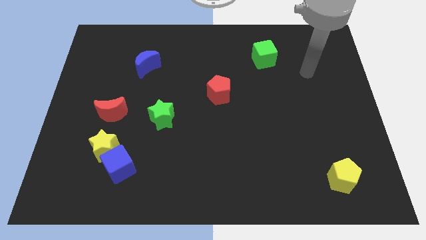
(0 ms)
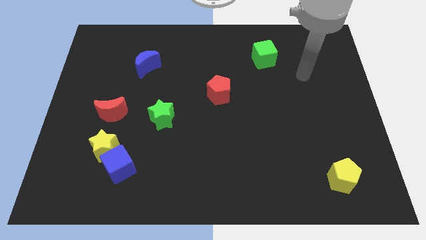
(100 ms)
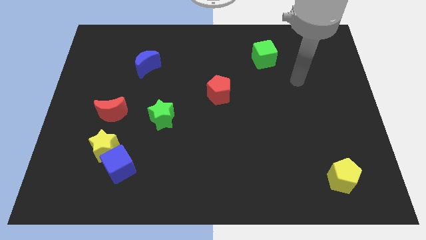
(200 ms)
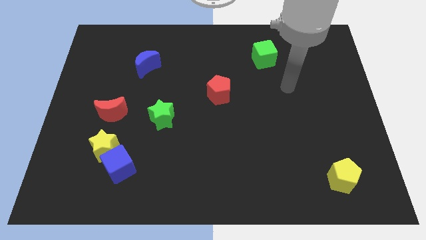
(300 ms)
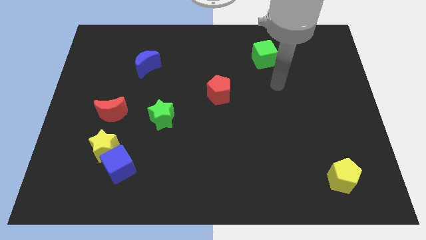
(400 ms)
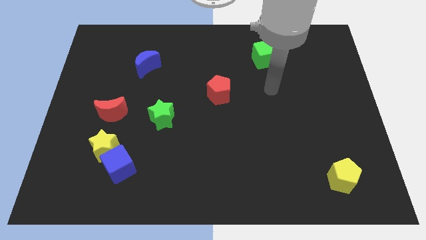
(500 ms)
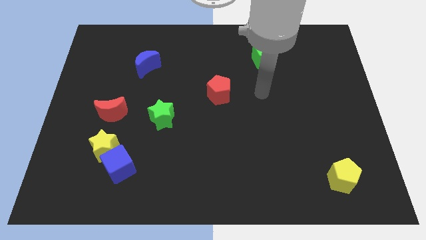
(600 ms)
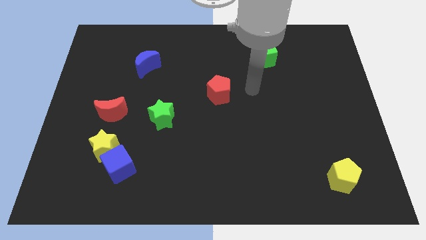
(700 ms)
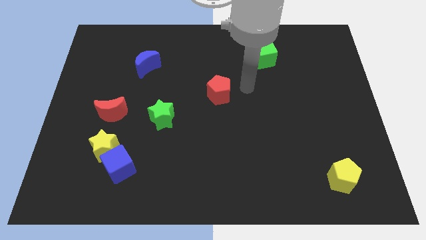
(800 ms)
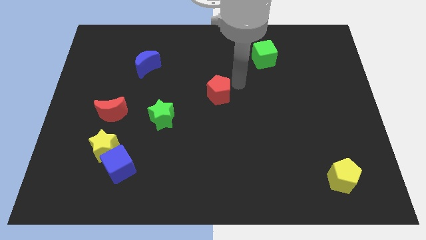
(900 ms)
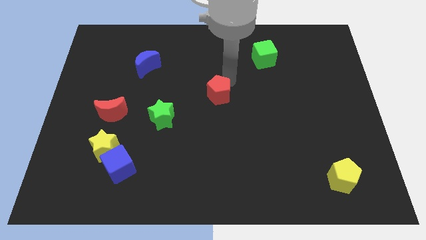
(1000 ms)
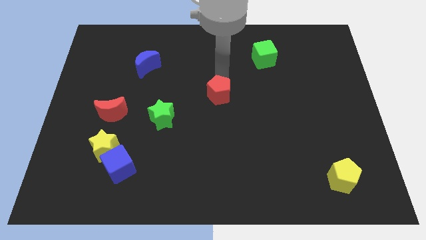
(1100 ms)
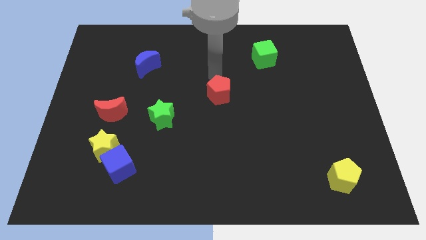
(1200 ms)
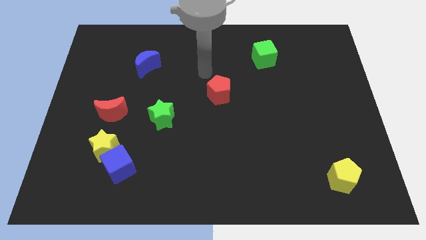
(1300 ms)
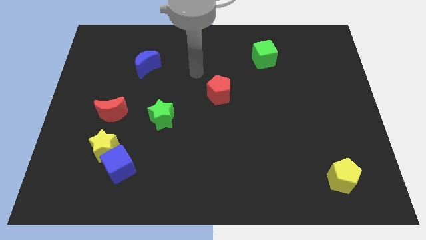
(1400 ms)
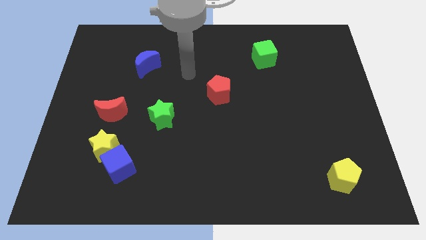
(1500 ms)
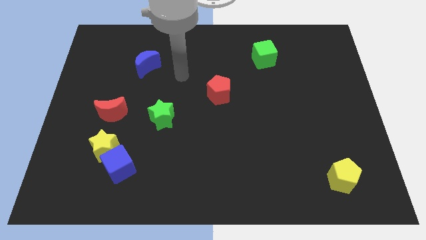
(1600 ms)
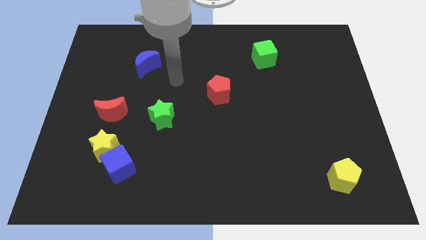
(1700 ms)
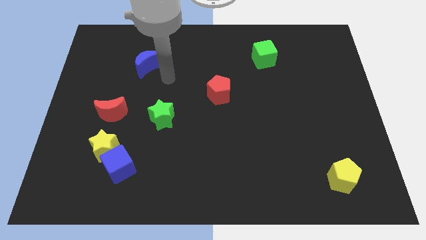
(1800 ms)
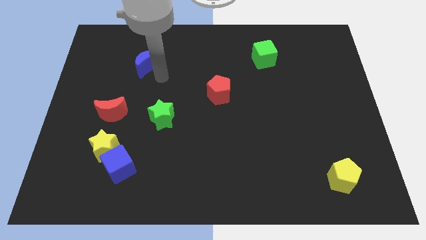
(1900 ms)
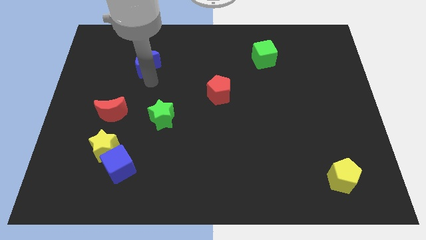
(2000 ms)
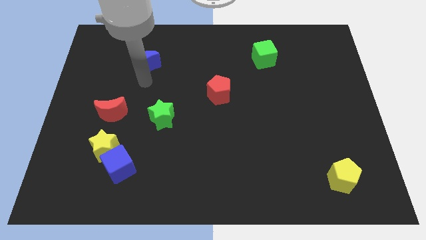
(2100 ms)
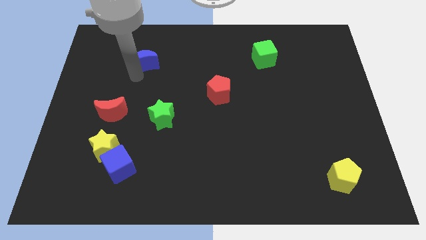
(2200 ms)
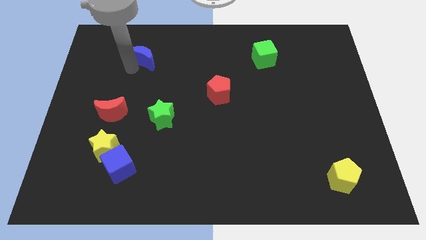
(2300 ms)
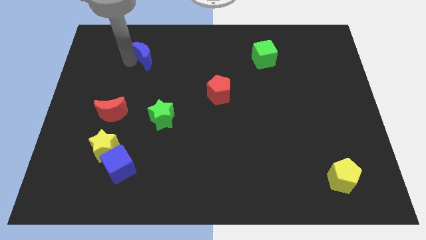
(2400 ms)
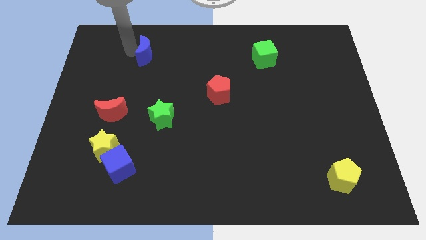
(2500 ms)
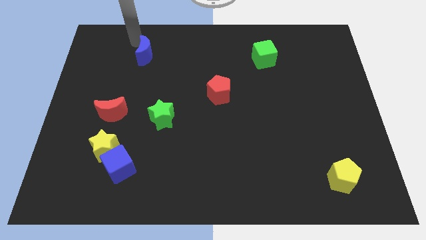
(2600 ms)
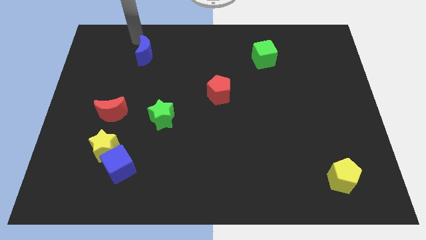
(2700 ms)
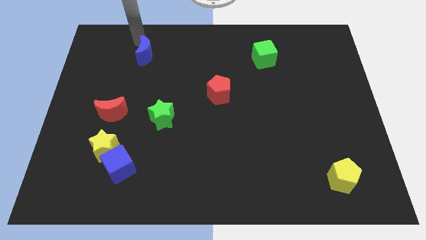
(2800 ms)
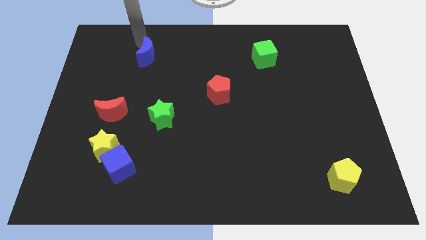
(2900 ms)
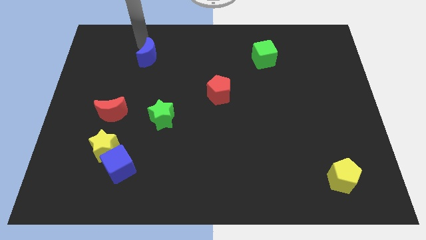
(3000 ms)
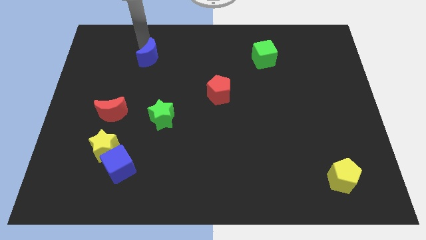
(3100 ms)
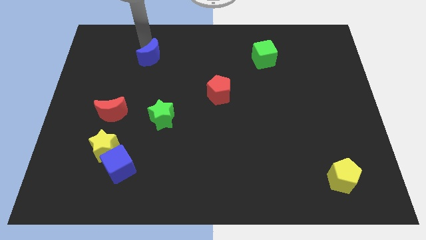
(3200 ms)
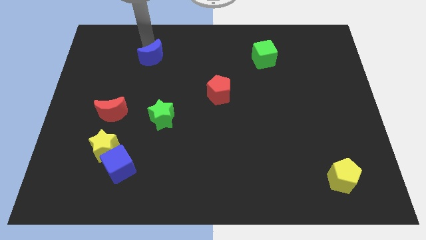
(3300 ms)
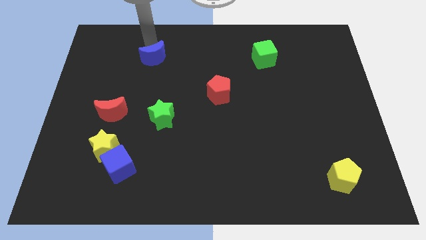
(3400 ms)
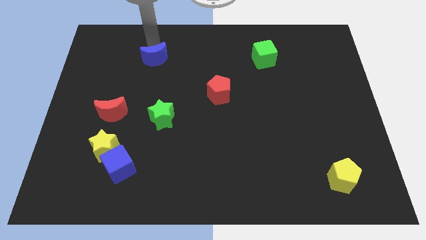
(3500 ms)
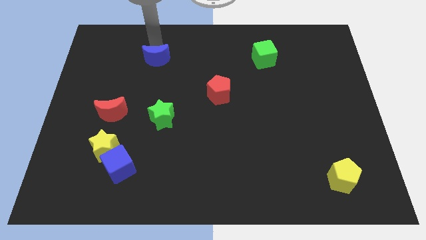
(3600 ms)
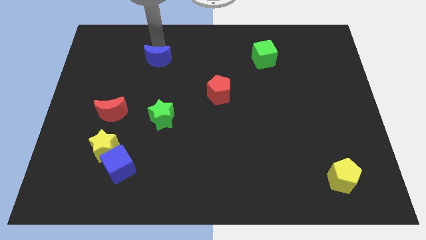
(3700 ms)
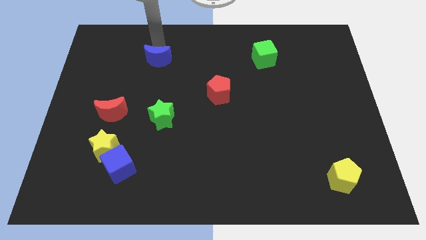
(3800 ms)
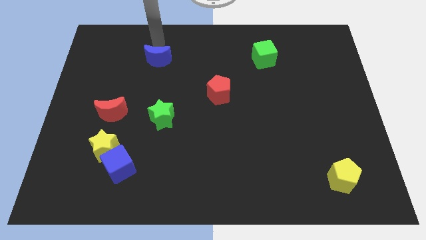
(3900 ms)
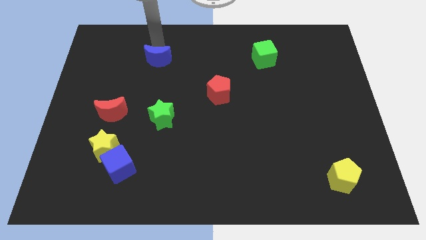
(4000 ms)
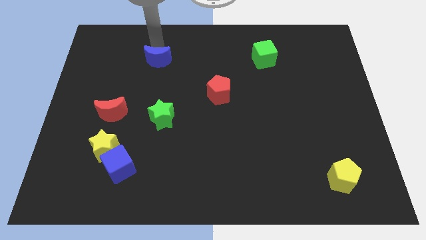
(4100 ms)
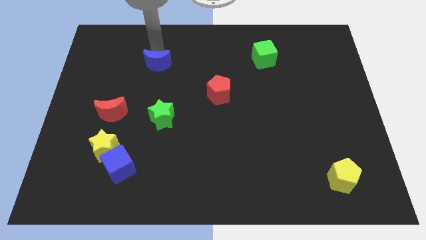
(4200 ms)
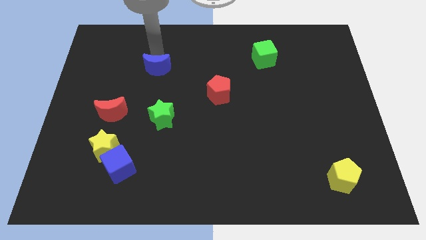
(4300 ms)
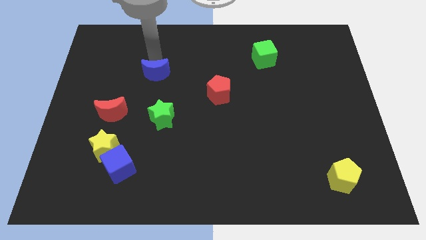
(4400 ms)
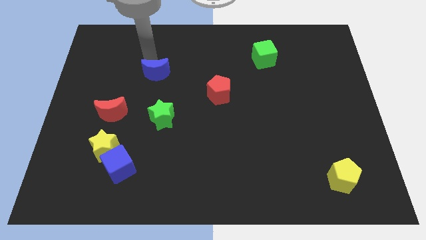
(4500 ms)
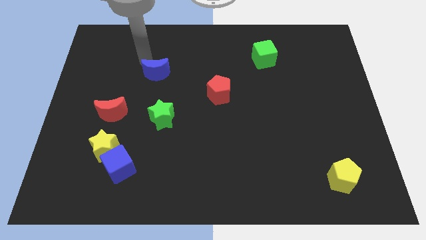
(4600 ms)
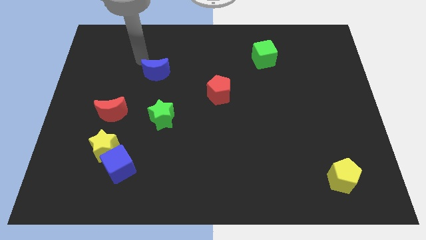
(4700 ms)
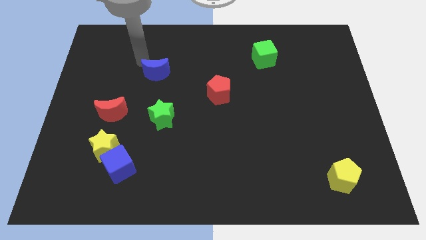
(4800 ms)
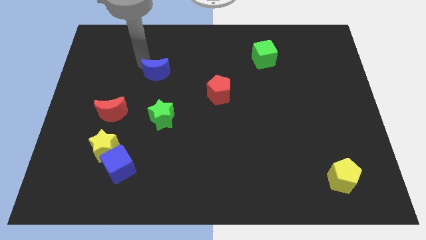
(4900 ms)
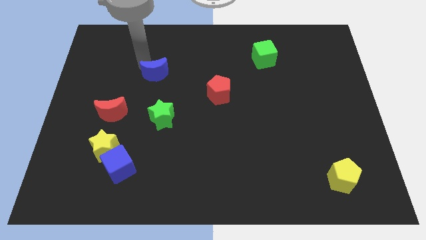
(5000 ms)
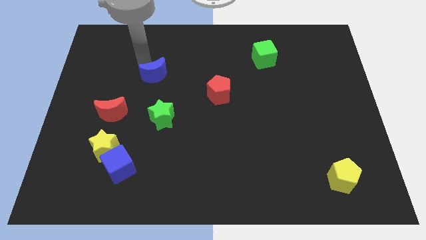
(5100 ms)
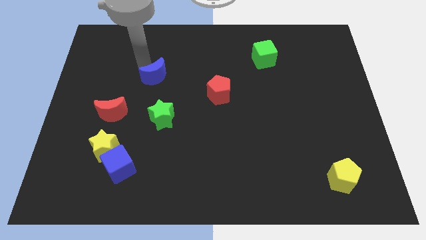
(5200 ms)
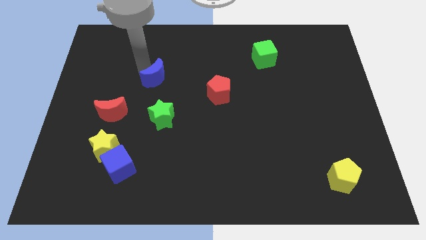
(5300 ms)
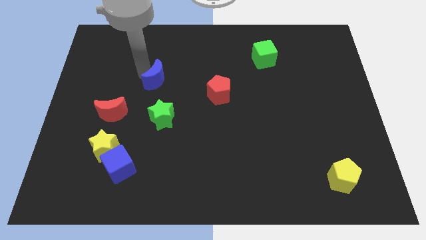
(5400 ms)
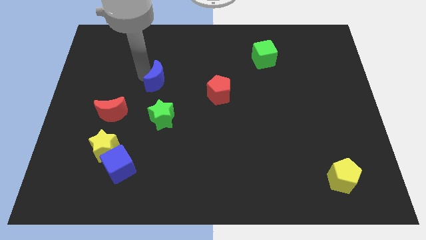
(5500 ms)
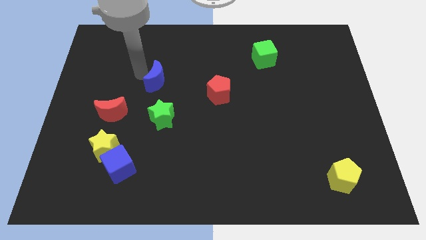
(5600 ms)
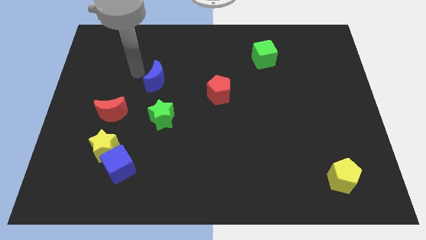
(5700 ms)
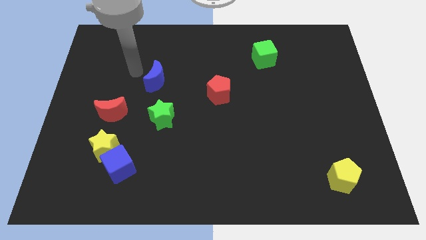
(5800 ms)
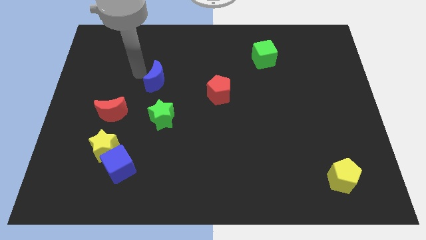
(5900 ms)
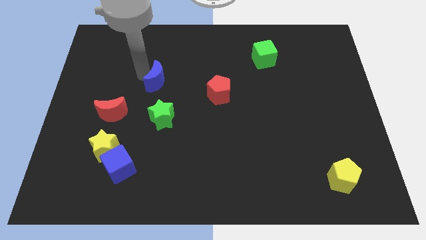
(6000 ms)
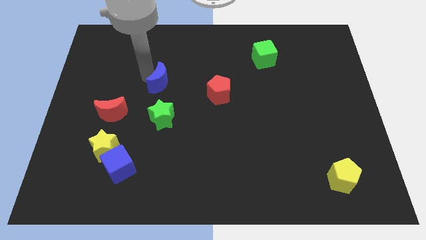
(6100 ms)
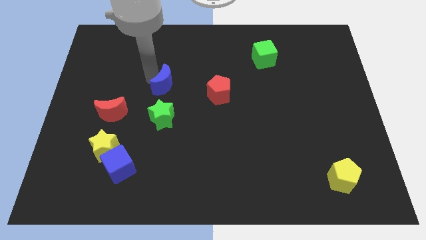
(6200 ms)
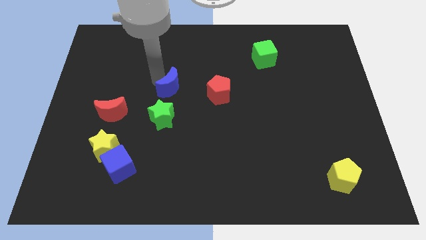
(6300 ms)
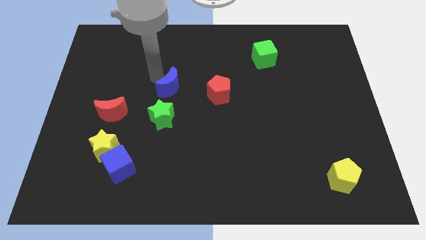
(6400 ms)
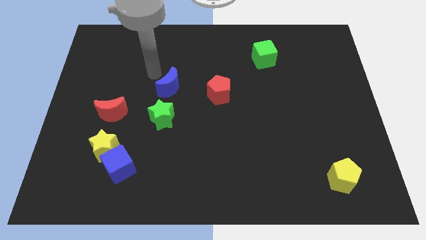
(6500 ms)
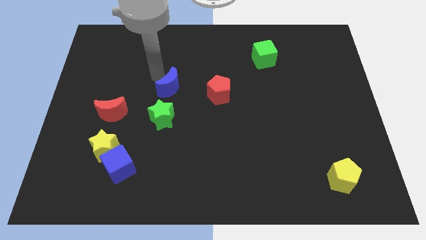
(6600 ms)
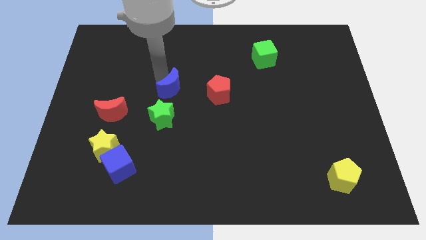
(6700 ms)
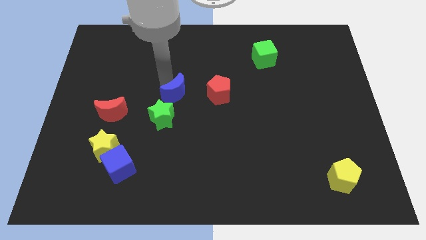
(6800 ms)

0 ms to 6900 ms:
slide the blue moon to the top right of the green star

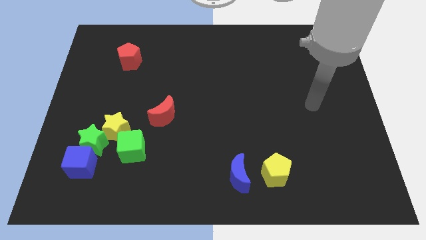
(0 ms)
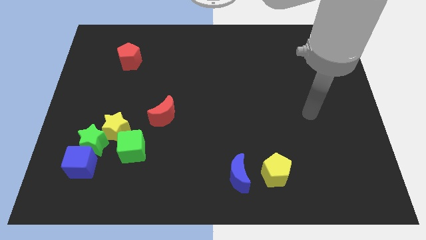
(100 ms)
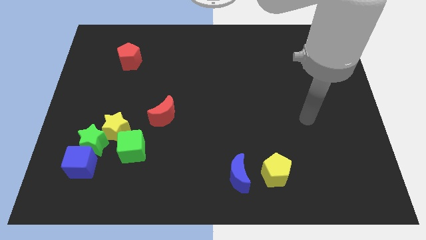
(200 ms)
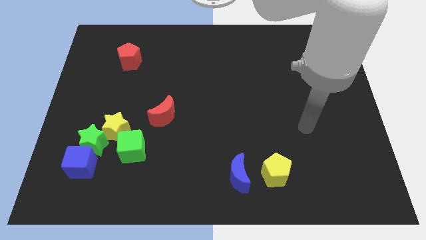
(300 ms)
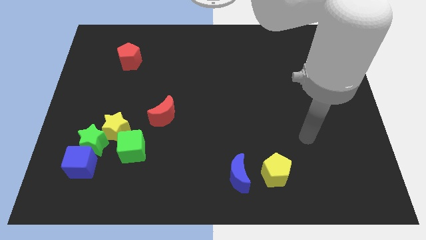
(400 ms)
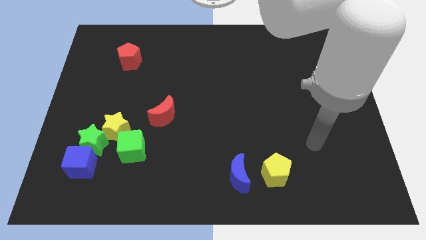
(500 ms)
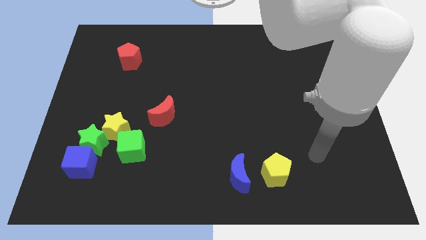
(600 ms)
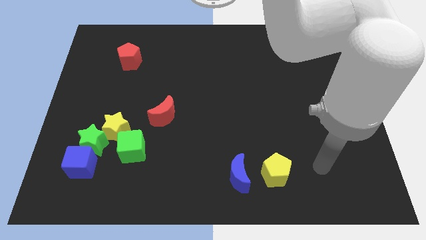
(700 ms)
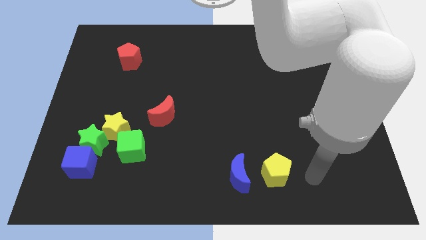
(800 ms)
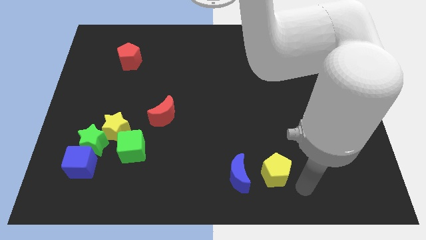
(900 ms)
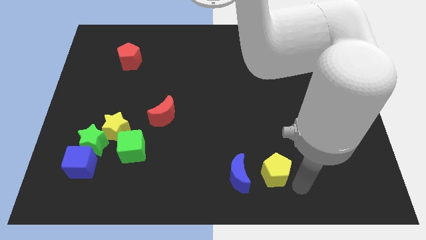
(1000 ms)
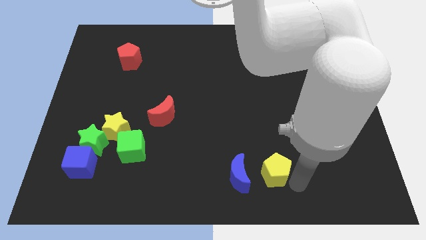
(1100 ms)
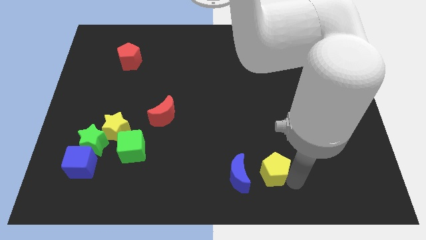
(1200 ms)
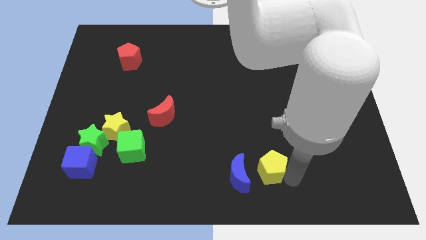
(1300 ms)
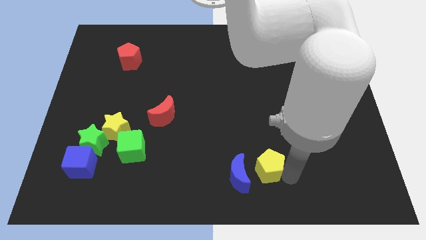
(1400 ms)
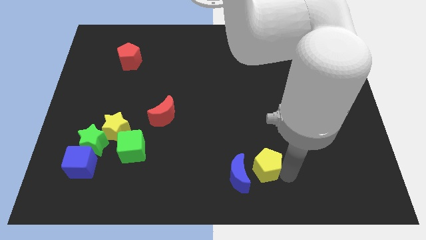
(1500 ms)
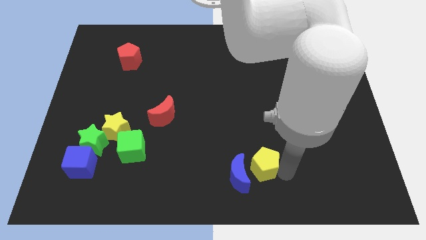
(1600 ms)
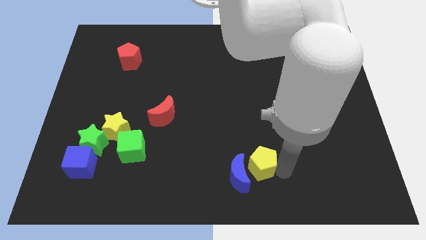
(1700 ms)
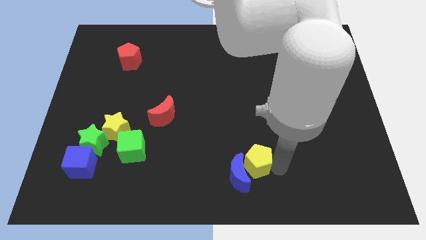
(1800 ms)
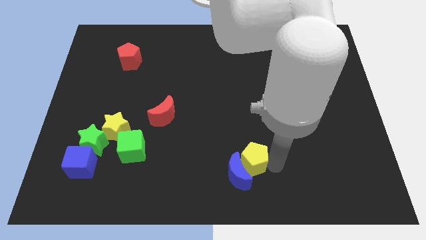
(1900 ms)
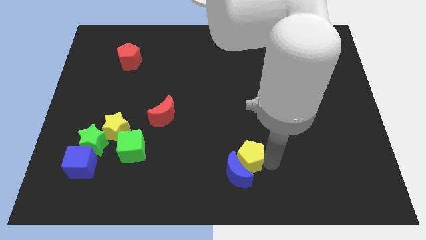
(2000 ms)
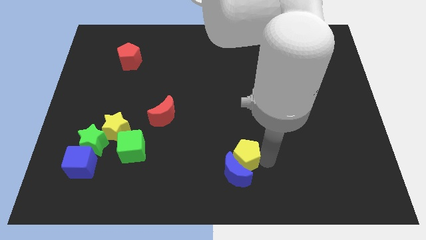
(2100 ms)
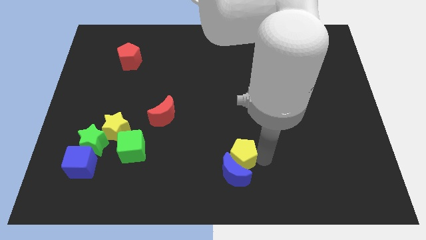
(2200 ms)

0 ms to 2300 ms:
slide the yellow pentagon to the top left side of the blue moon
